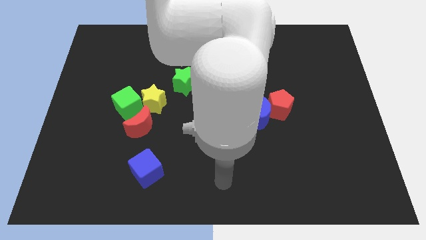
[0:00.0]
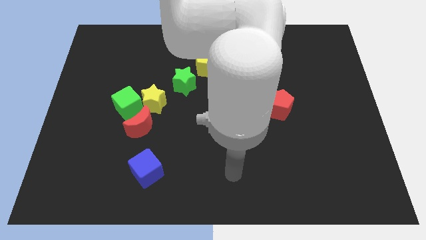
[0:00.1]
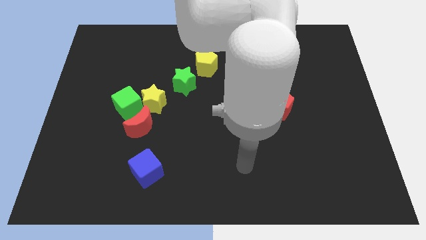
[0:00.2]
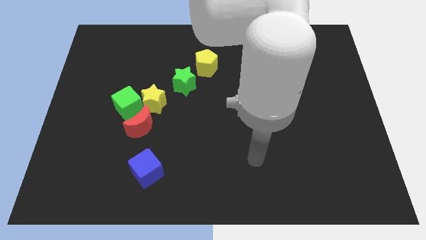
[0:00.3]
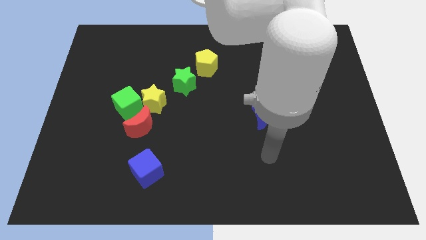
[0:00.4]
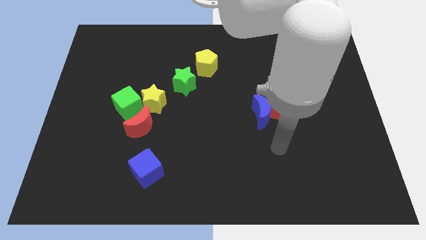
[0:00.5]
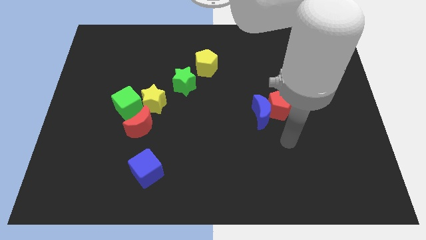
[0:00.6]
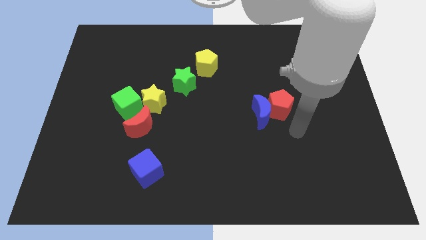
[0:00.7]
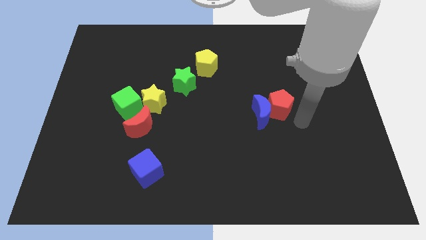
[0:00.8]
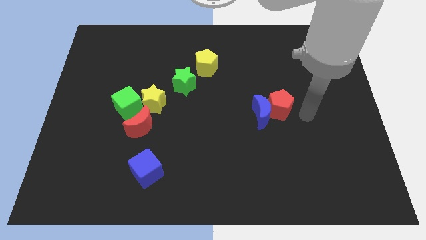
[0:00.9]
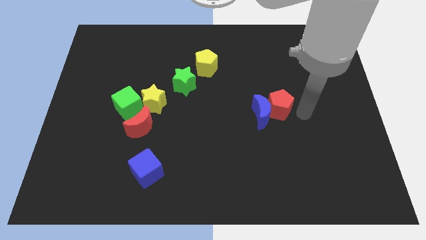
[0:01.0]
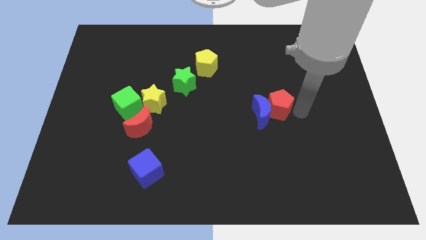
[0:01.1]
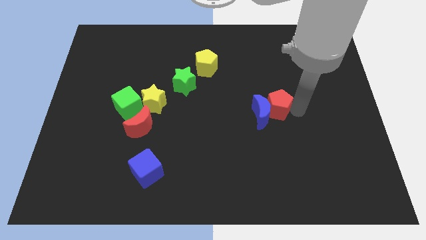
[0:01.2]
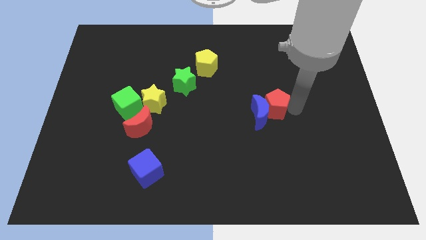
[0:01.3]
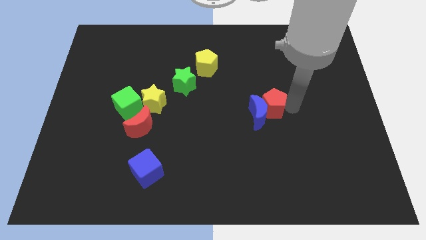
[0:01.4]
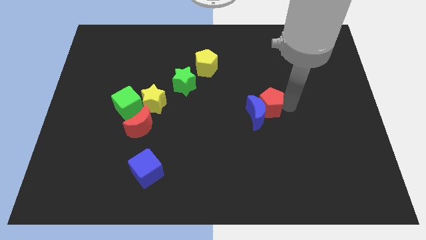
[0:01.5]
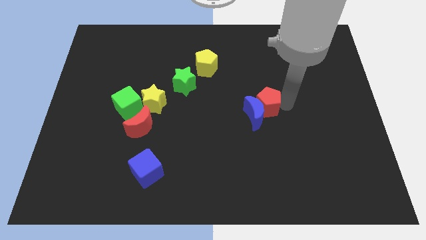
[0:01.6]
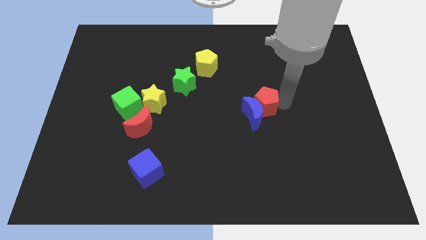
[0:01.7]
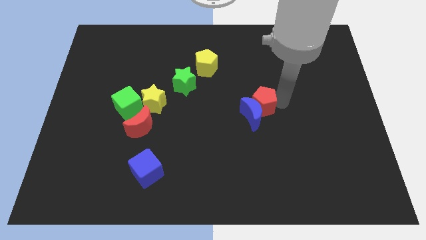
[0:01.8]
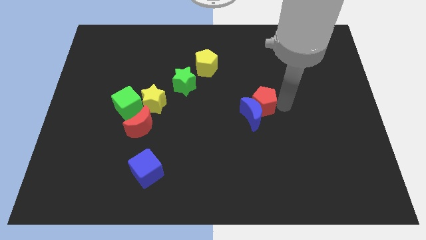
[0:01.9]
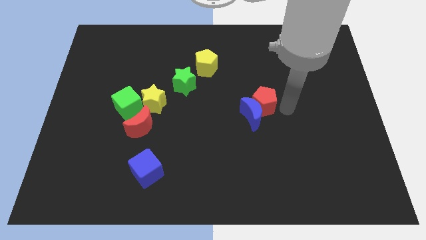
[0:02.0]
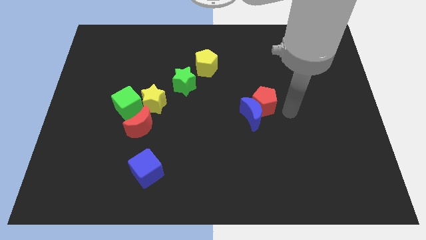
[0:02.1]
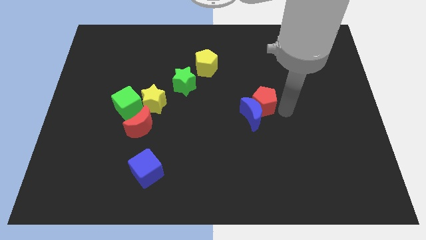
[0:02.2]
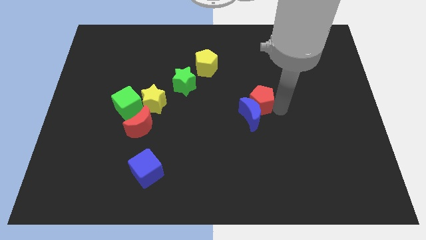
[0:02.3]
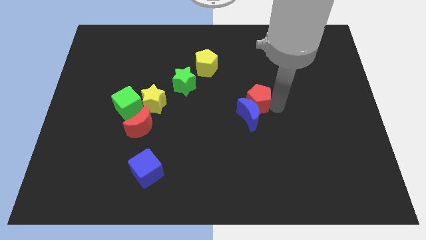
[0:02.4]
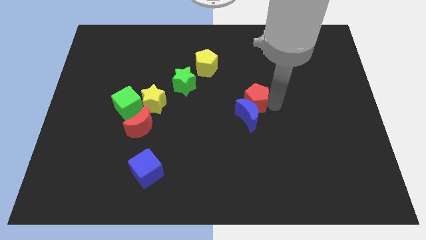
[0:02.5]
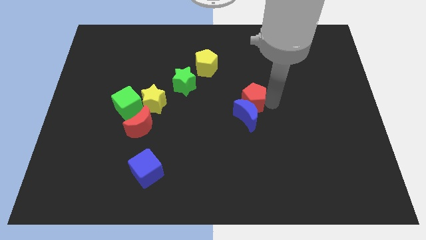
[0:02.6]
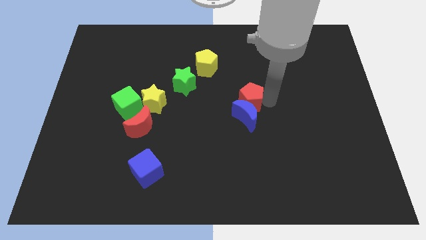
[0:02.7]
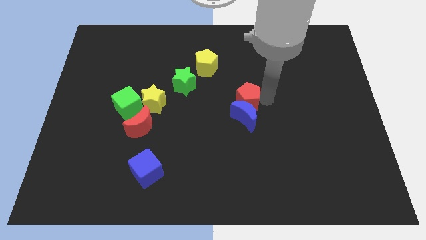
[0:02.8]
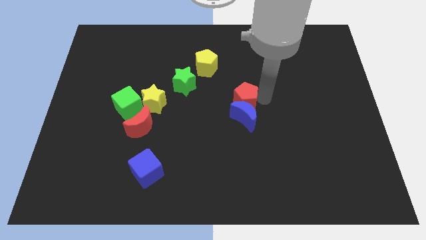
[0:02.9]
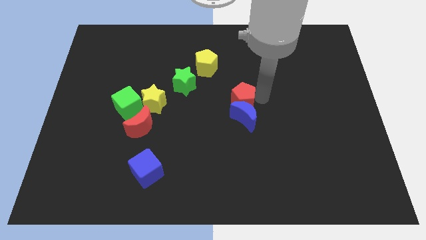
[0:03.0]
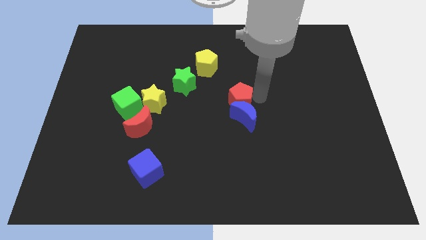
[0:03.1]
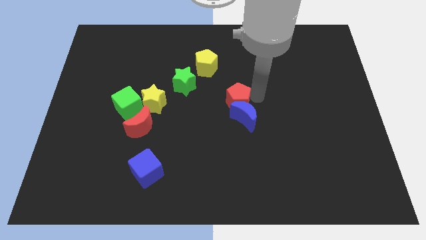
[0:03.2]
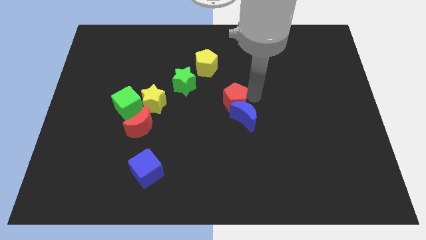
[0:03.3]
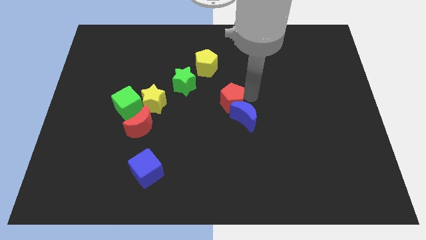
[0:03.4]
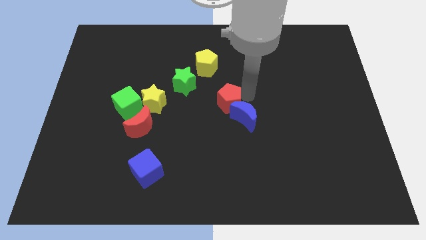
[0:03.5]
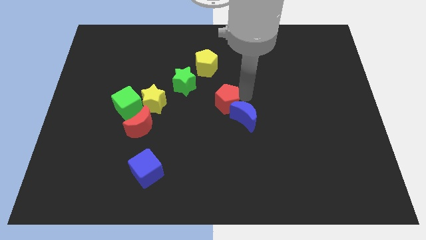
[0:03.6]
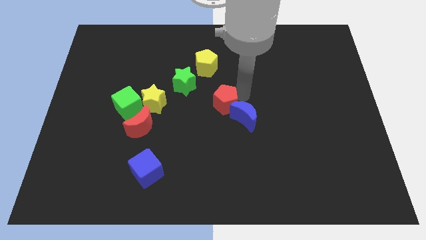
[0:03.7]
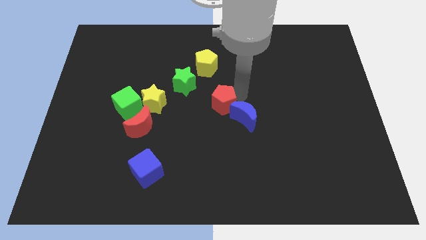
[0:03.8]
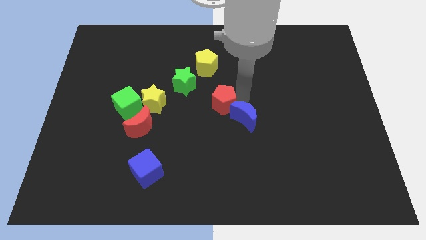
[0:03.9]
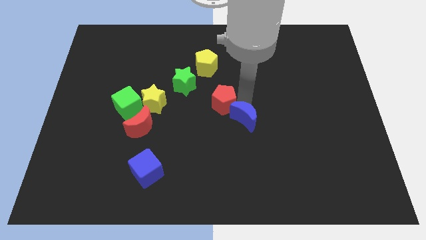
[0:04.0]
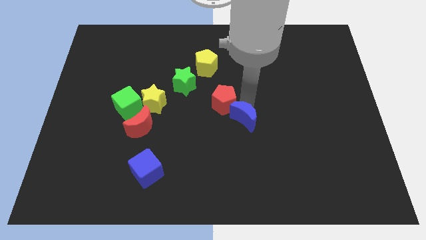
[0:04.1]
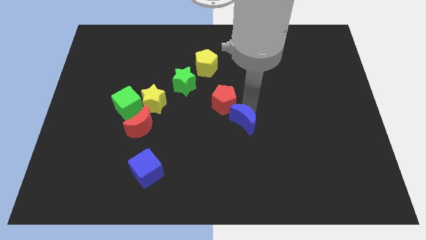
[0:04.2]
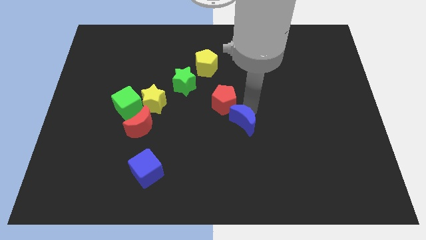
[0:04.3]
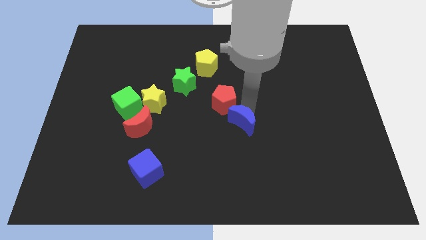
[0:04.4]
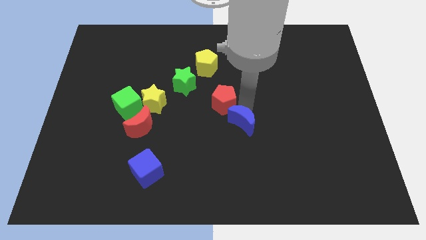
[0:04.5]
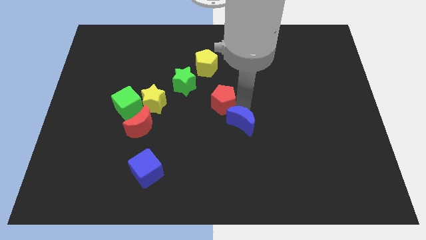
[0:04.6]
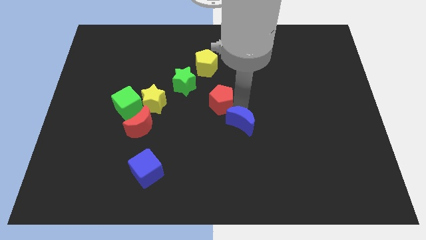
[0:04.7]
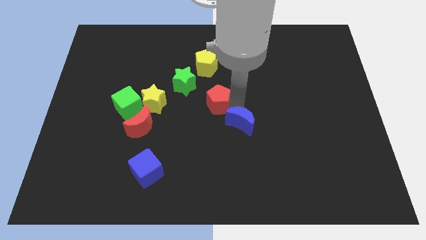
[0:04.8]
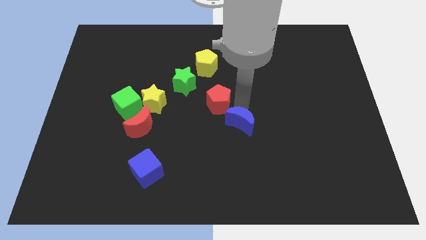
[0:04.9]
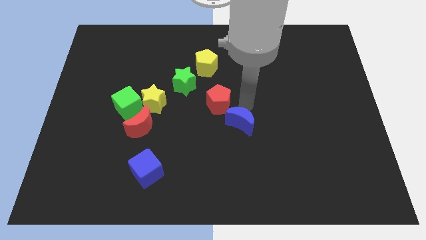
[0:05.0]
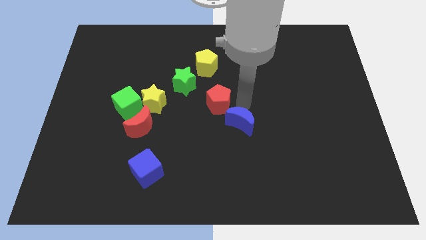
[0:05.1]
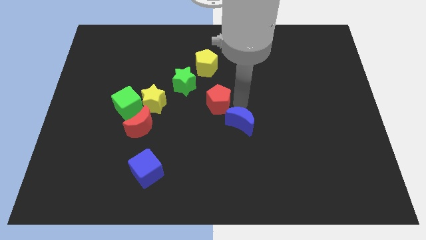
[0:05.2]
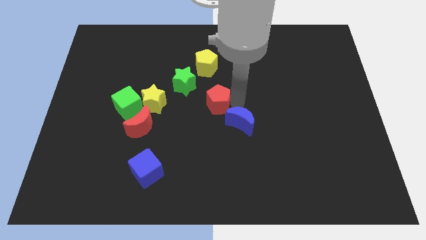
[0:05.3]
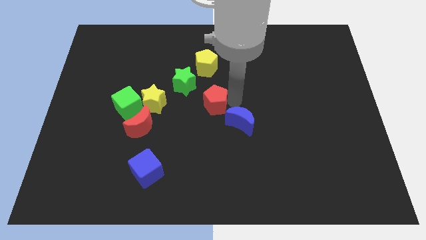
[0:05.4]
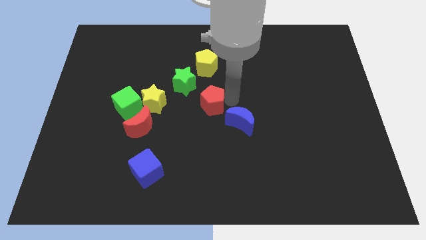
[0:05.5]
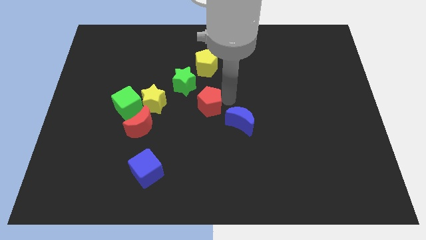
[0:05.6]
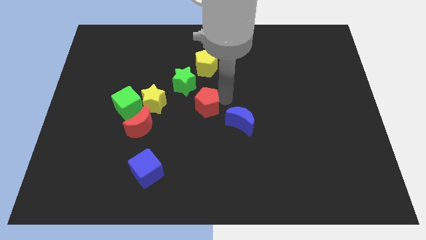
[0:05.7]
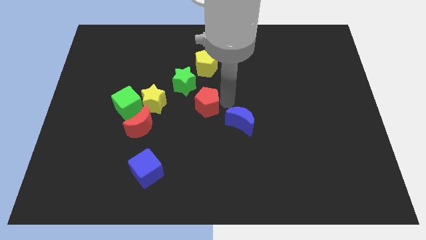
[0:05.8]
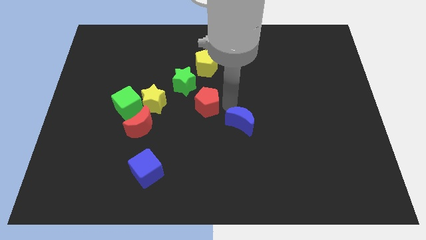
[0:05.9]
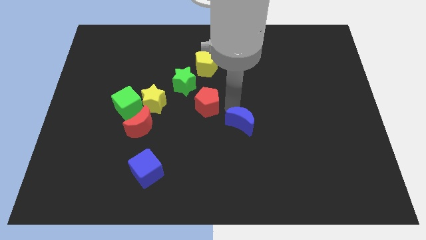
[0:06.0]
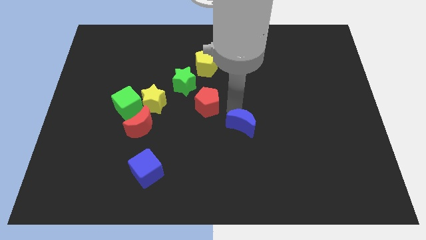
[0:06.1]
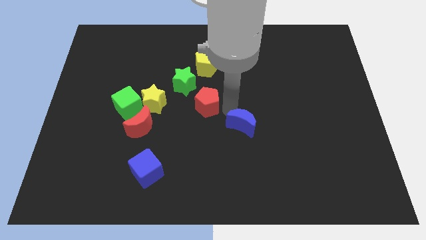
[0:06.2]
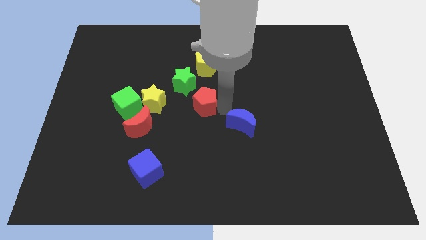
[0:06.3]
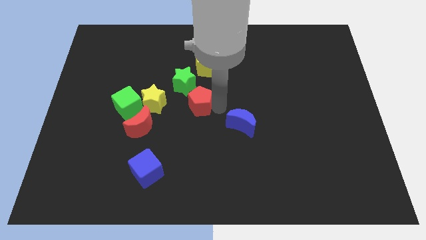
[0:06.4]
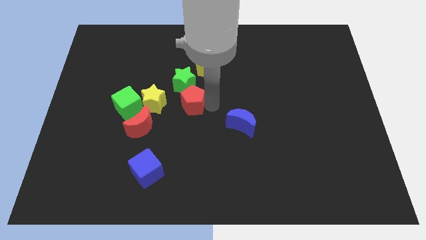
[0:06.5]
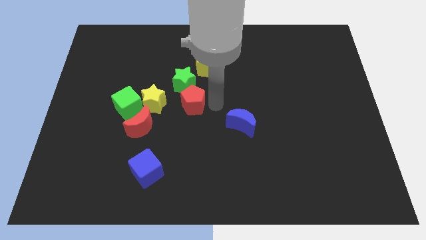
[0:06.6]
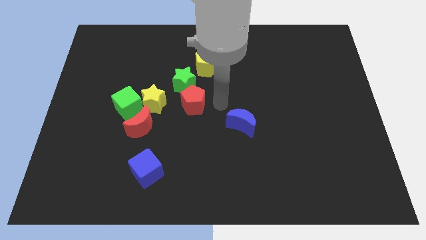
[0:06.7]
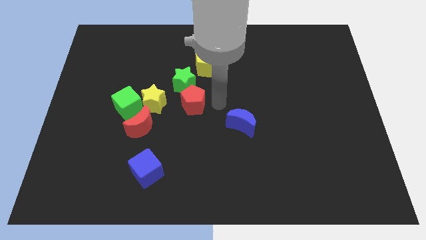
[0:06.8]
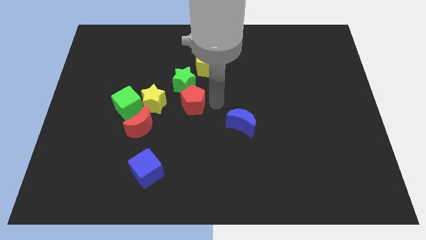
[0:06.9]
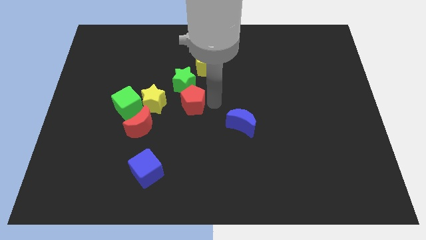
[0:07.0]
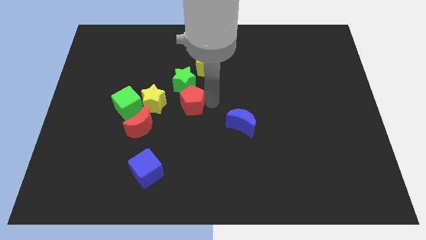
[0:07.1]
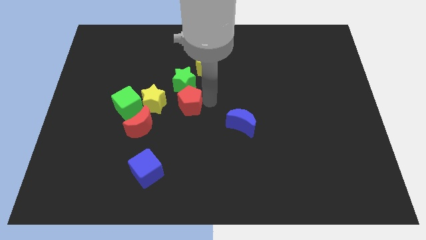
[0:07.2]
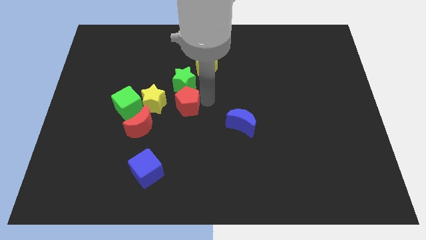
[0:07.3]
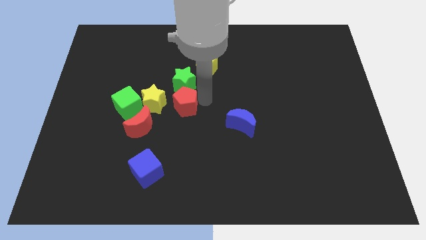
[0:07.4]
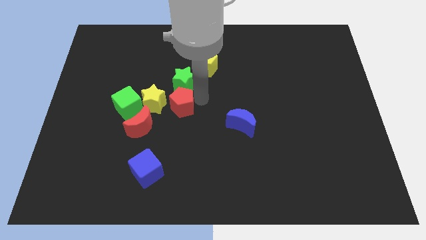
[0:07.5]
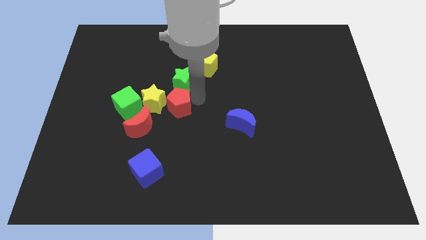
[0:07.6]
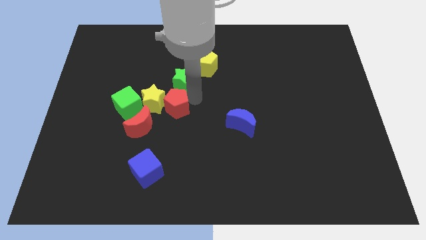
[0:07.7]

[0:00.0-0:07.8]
slide the red pentagon to the yellow star
